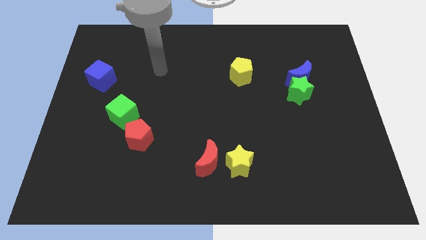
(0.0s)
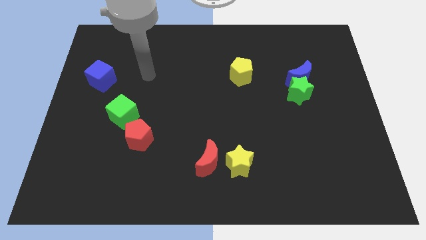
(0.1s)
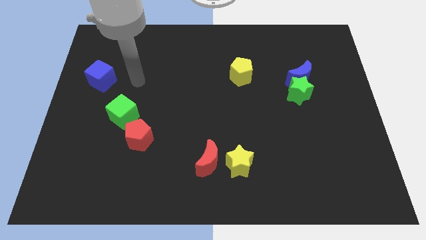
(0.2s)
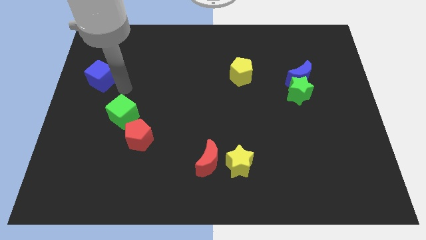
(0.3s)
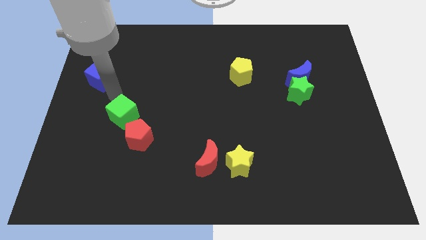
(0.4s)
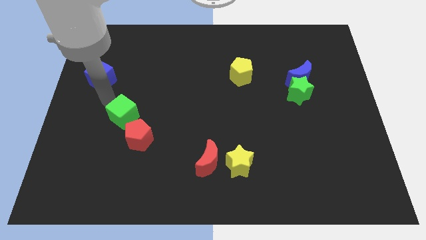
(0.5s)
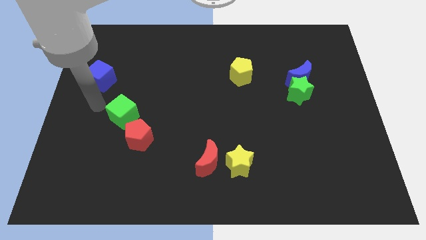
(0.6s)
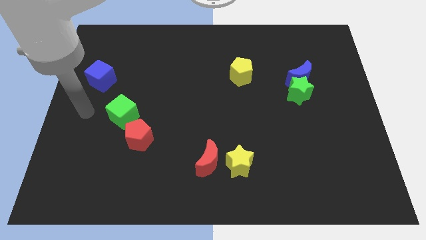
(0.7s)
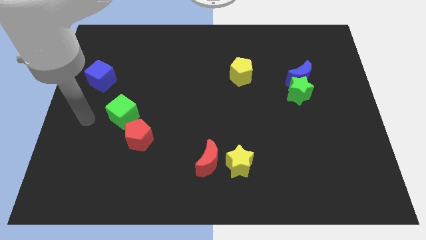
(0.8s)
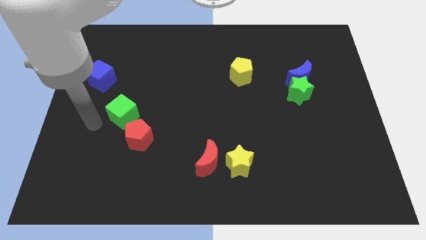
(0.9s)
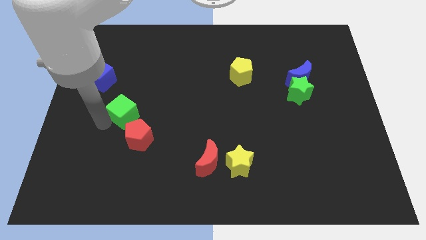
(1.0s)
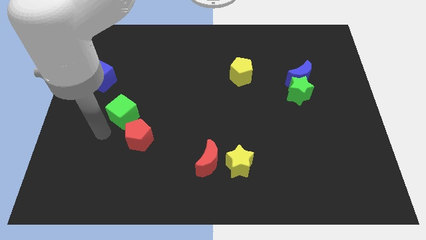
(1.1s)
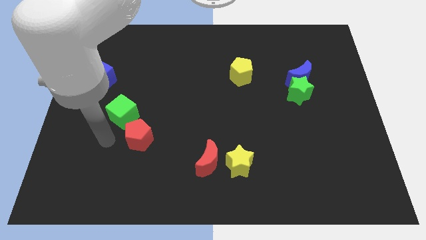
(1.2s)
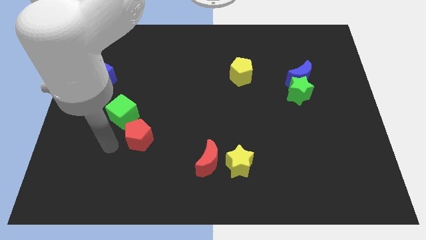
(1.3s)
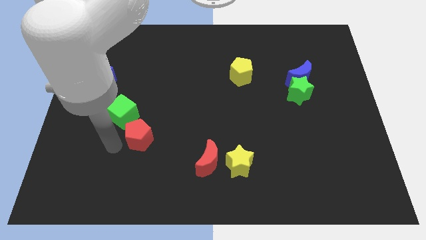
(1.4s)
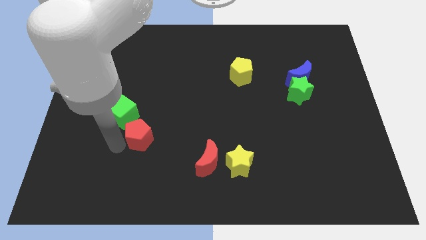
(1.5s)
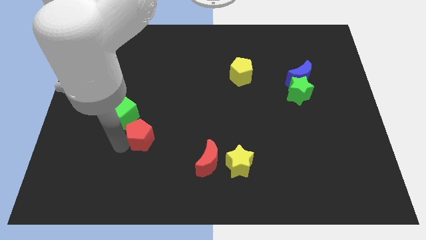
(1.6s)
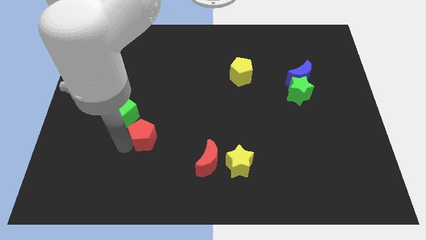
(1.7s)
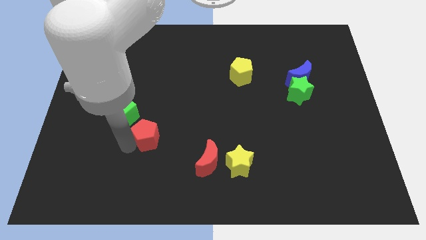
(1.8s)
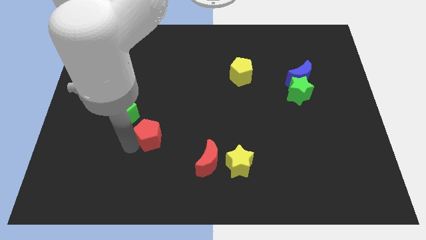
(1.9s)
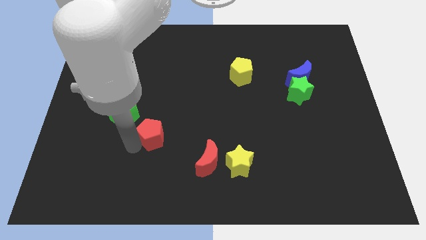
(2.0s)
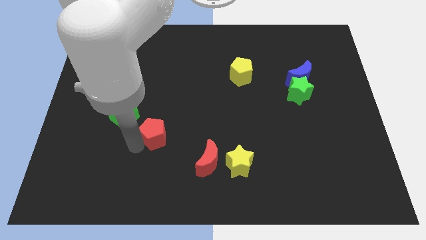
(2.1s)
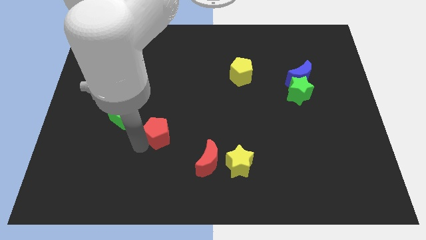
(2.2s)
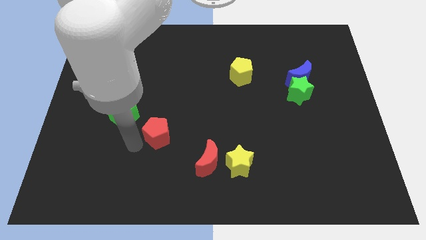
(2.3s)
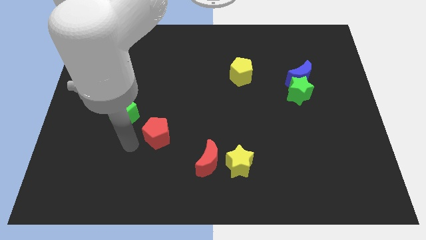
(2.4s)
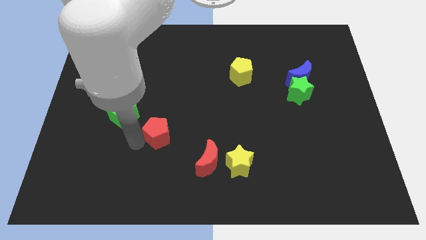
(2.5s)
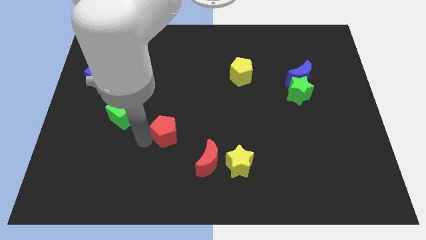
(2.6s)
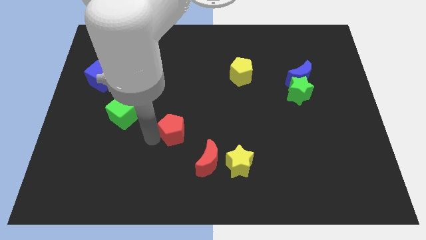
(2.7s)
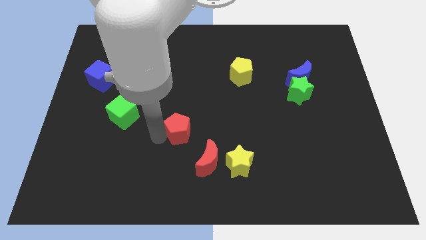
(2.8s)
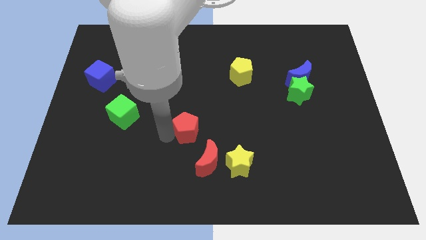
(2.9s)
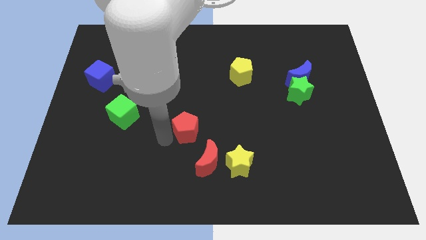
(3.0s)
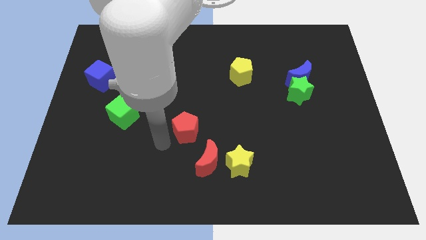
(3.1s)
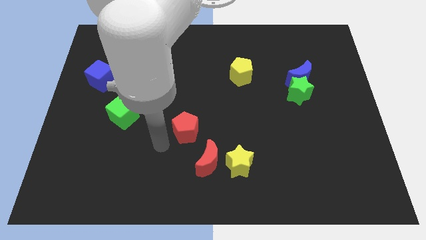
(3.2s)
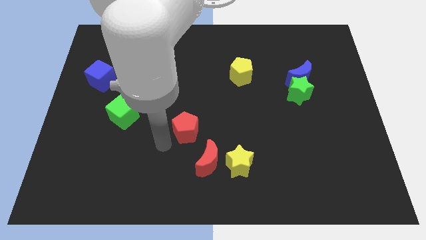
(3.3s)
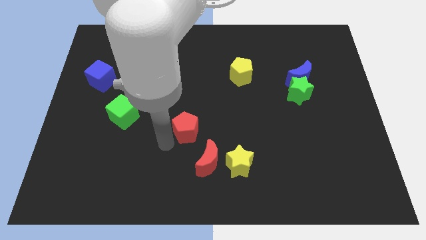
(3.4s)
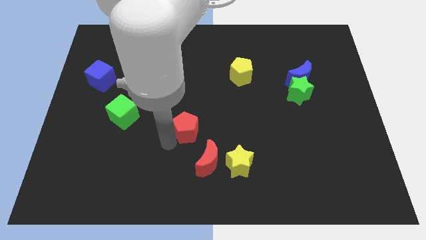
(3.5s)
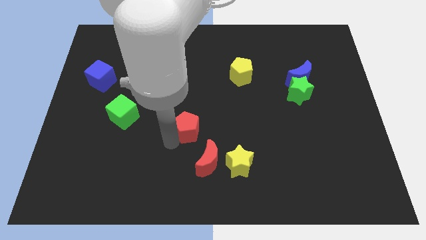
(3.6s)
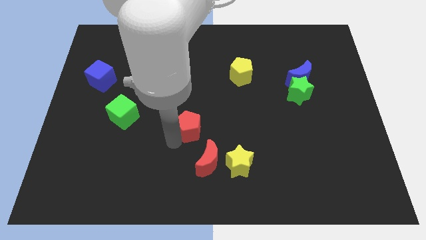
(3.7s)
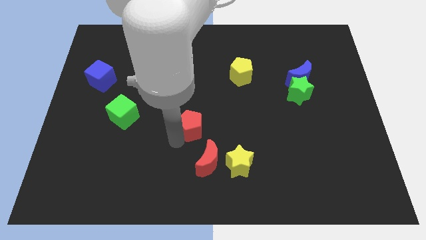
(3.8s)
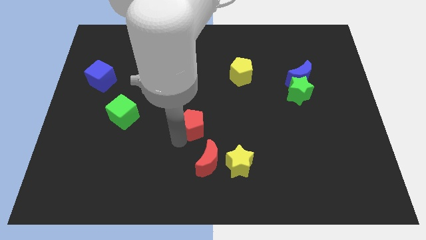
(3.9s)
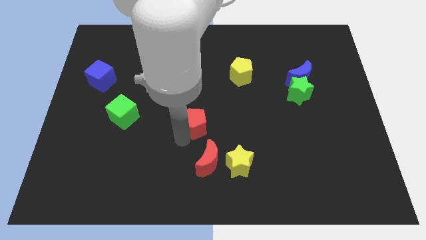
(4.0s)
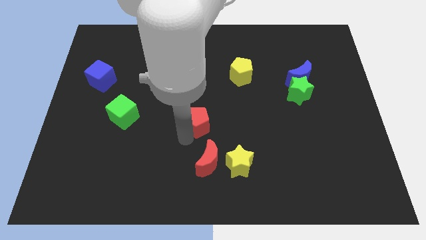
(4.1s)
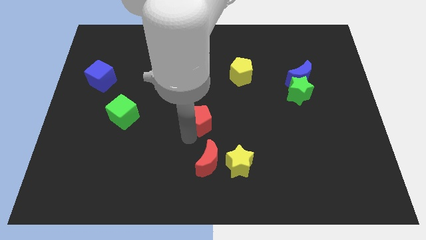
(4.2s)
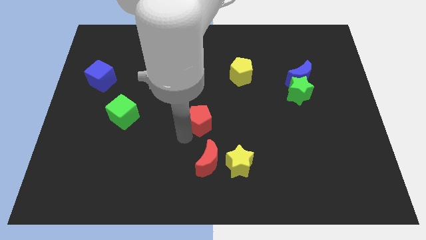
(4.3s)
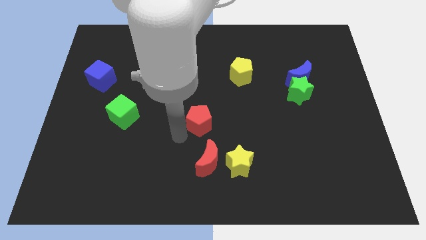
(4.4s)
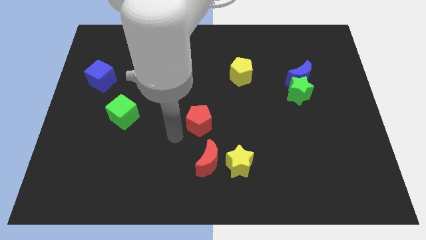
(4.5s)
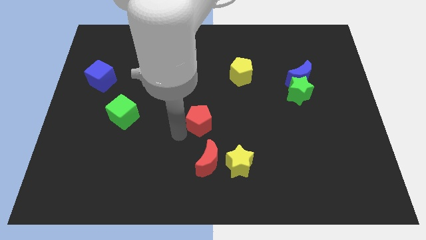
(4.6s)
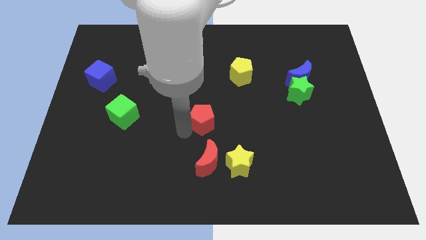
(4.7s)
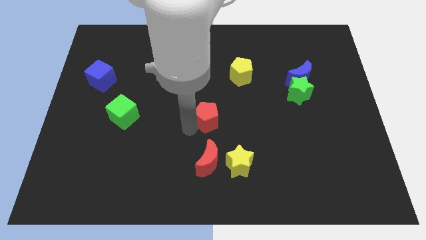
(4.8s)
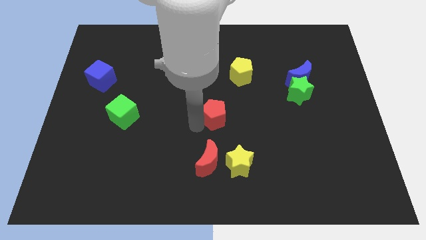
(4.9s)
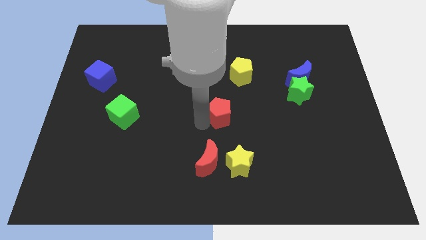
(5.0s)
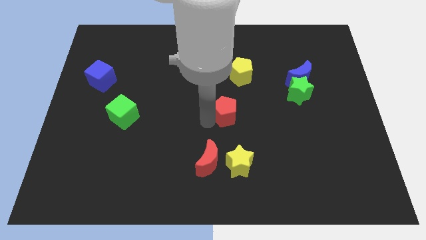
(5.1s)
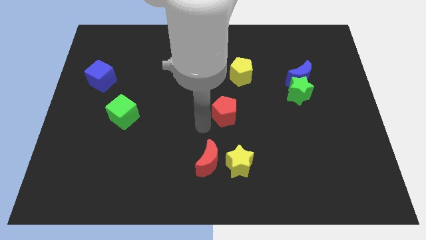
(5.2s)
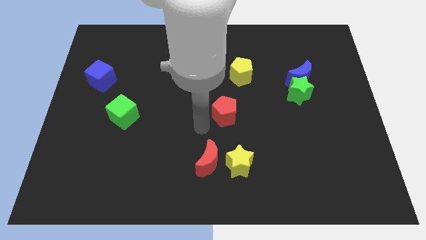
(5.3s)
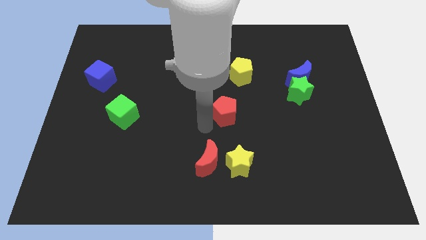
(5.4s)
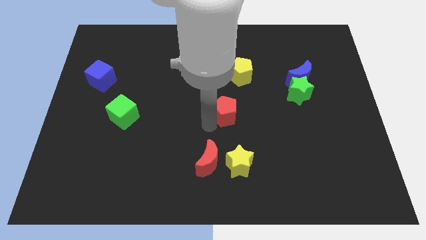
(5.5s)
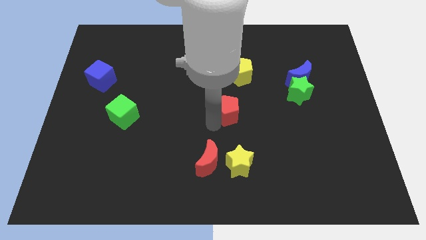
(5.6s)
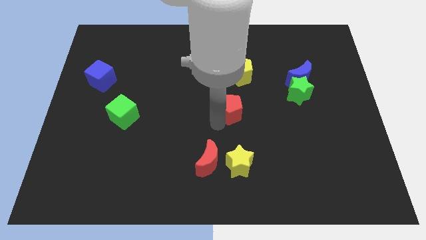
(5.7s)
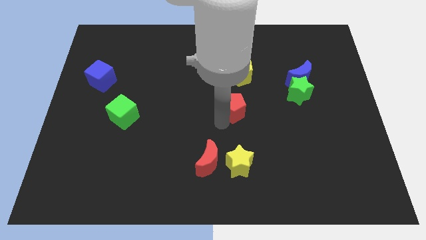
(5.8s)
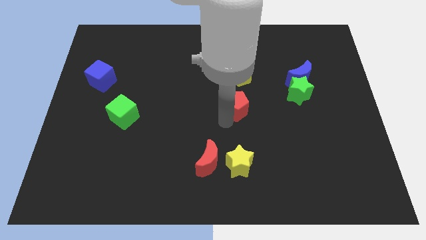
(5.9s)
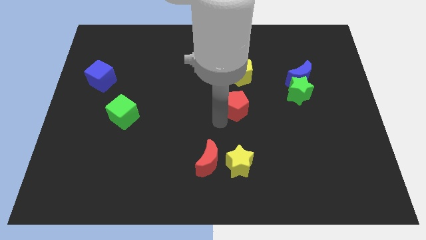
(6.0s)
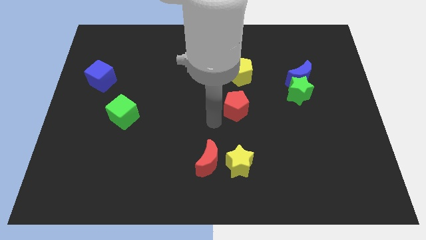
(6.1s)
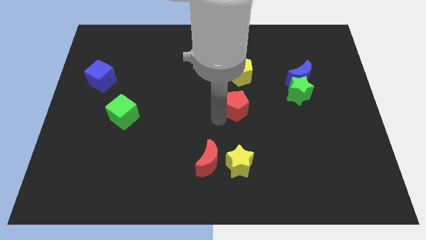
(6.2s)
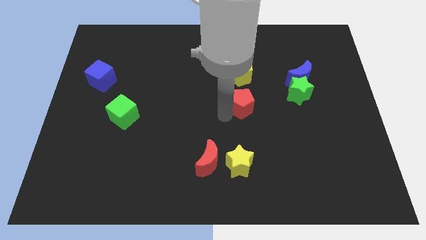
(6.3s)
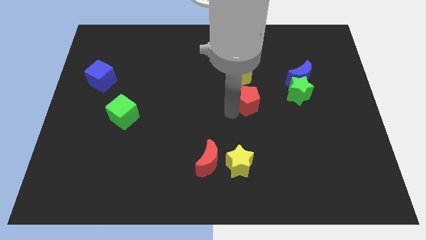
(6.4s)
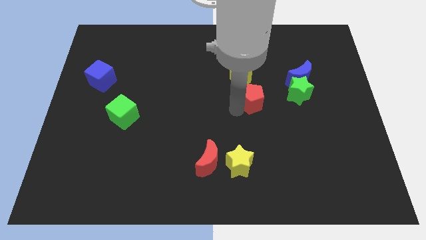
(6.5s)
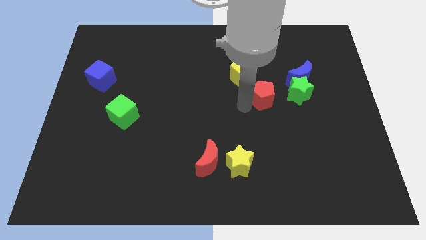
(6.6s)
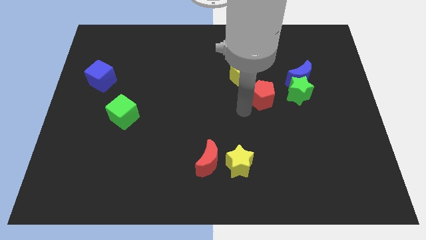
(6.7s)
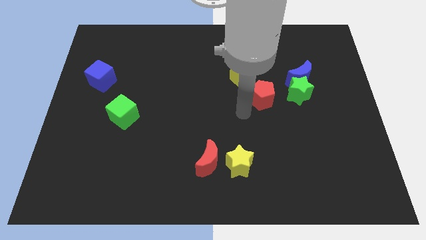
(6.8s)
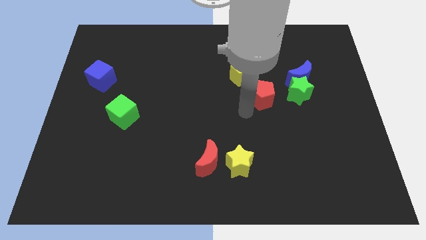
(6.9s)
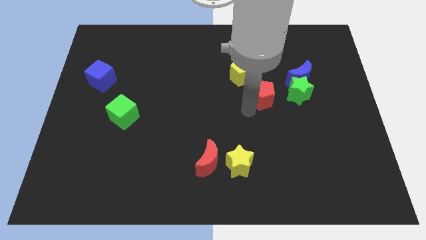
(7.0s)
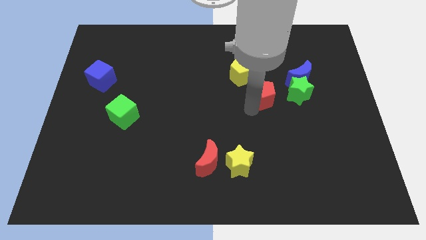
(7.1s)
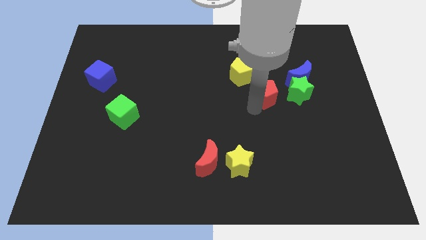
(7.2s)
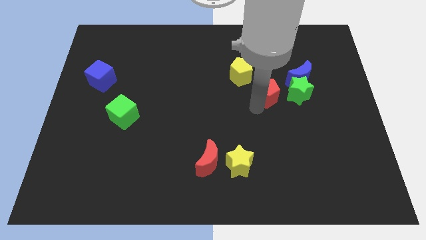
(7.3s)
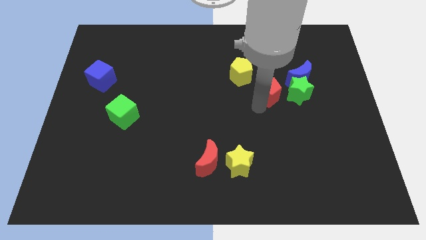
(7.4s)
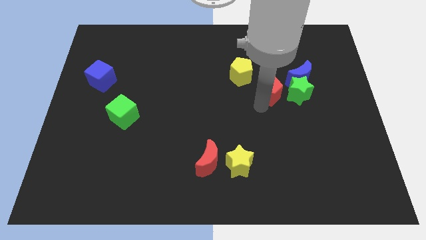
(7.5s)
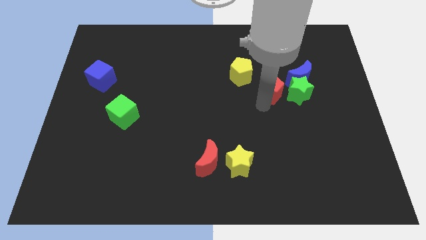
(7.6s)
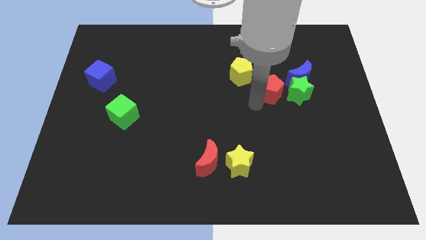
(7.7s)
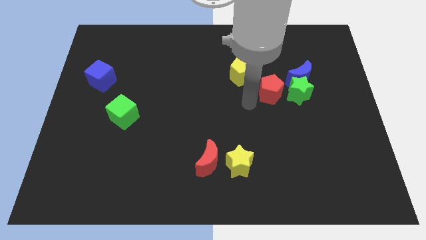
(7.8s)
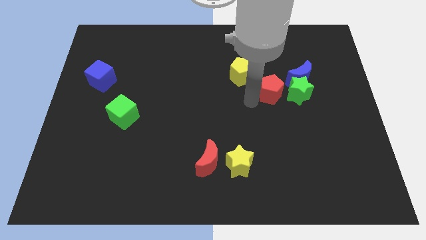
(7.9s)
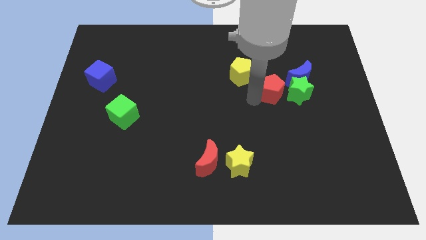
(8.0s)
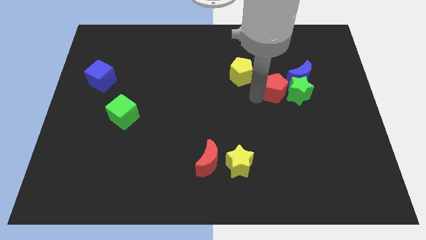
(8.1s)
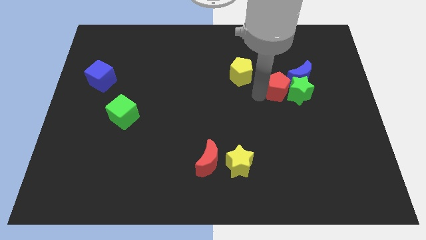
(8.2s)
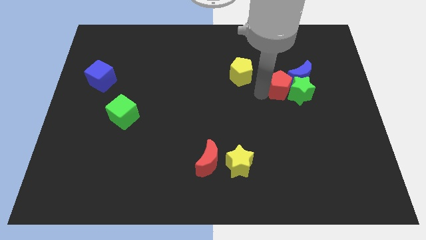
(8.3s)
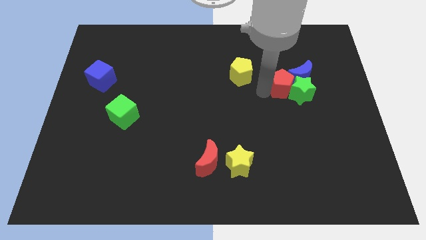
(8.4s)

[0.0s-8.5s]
push the red pentagon to the blue moon
